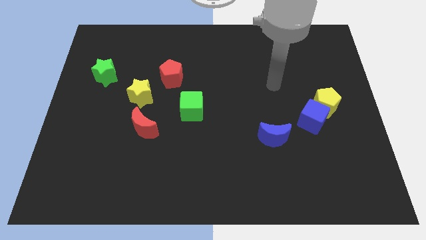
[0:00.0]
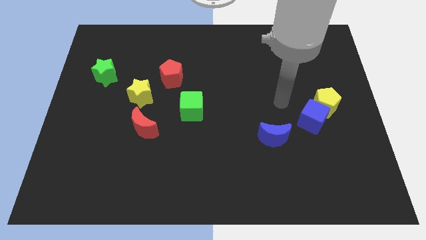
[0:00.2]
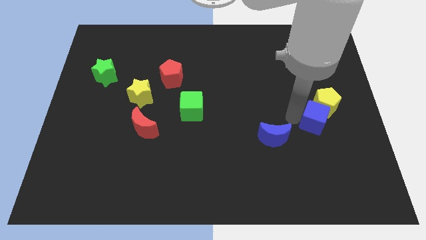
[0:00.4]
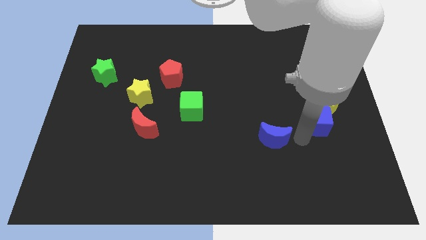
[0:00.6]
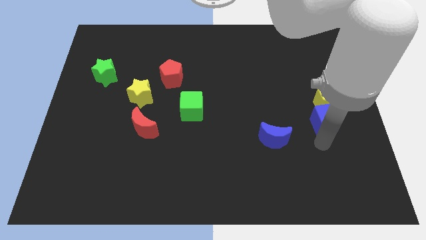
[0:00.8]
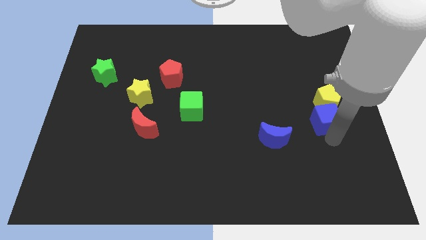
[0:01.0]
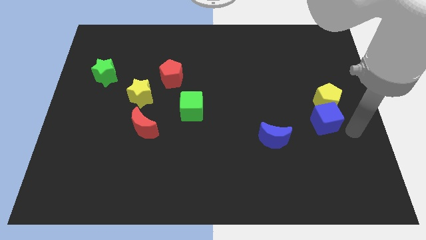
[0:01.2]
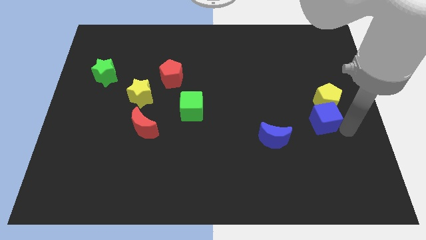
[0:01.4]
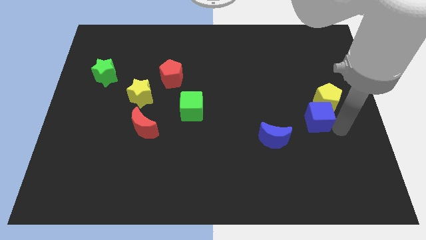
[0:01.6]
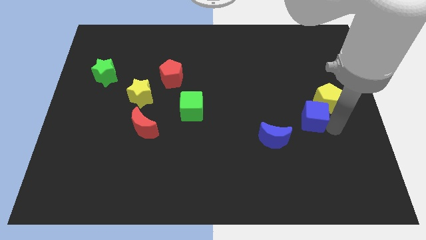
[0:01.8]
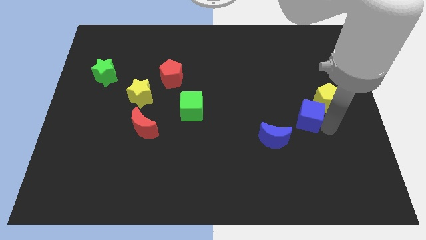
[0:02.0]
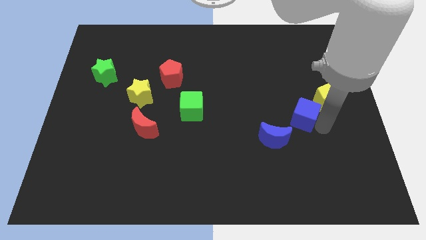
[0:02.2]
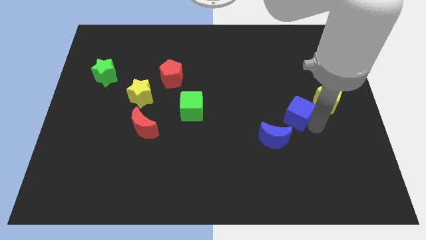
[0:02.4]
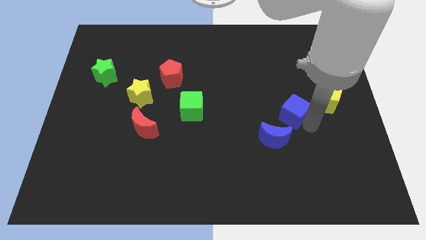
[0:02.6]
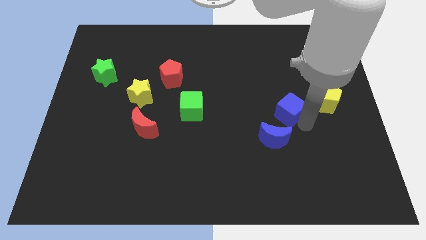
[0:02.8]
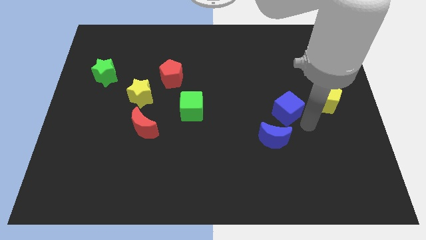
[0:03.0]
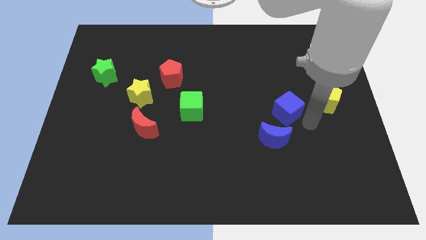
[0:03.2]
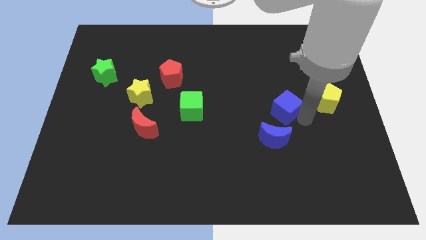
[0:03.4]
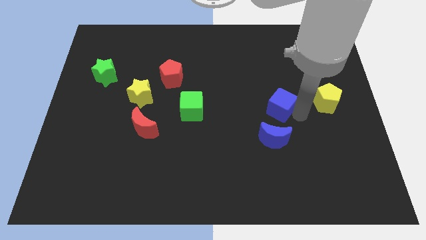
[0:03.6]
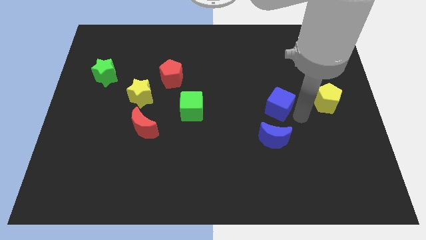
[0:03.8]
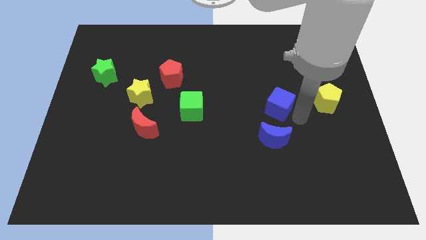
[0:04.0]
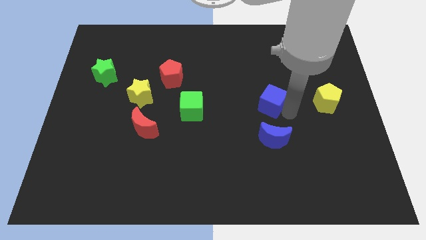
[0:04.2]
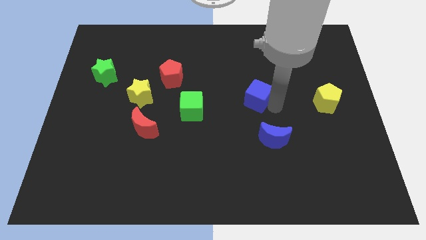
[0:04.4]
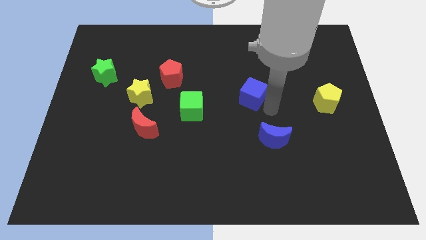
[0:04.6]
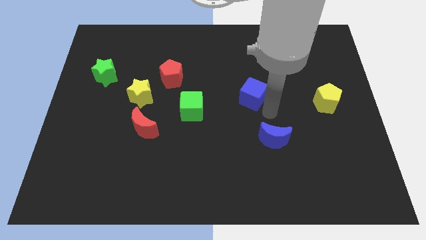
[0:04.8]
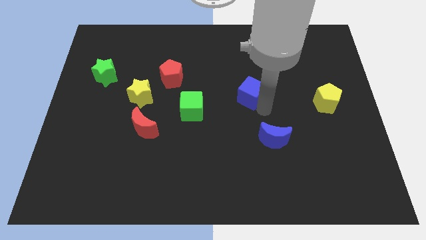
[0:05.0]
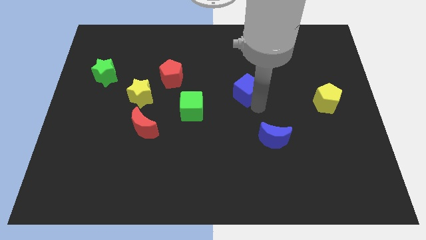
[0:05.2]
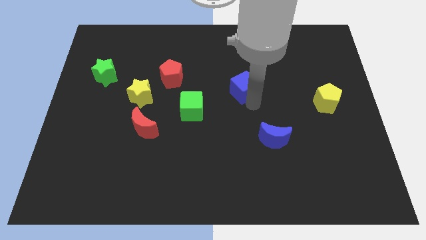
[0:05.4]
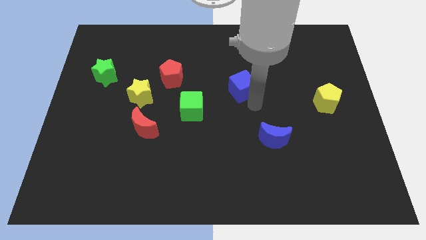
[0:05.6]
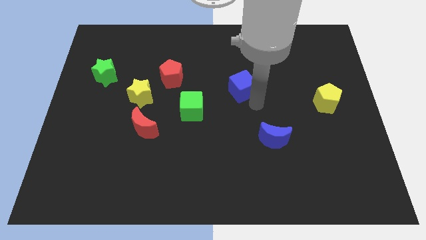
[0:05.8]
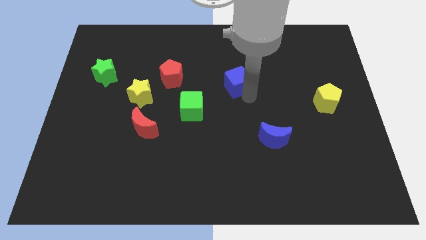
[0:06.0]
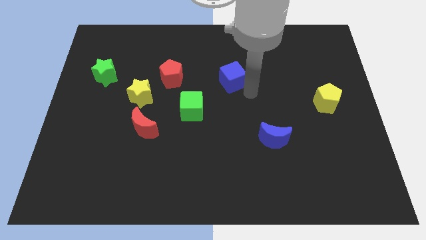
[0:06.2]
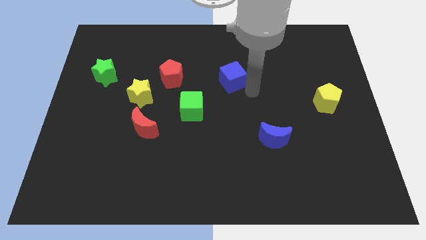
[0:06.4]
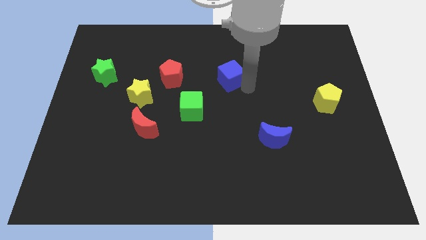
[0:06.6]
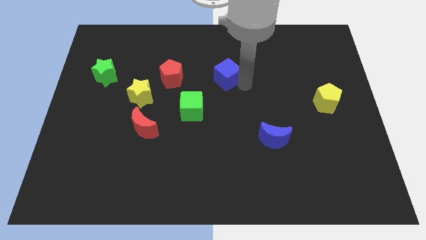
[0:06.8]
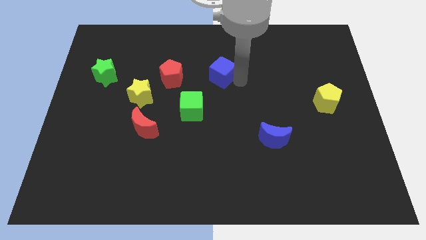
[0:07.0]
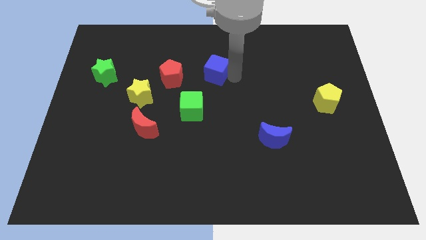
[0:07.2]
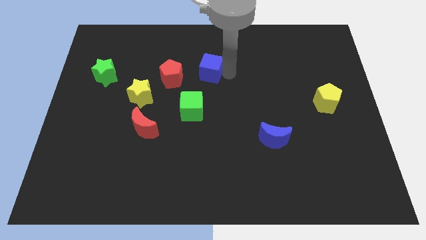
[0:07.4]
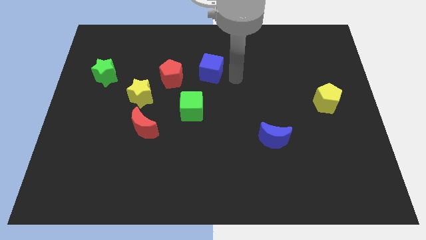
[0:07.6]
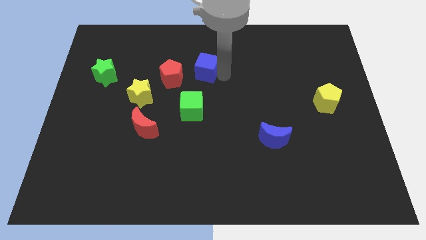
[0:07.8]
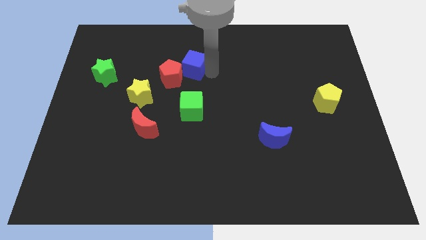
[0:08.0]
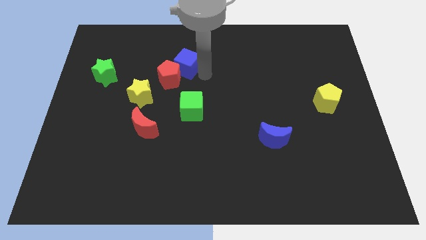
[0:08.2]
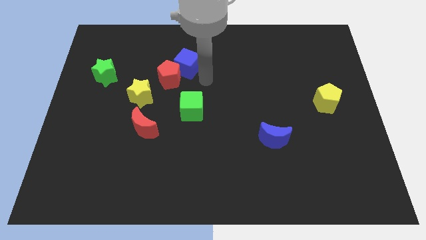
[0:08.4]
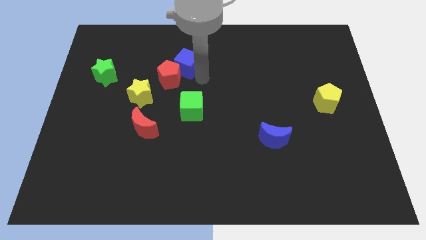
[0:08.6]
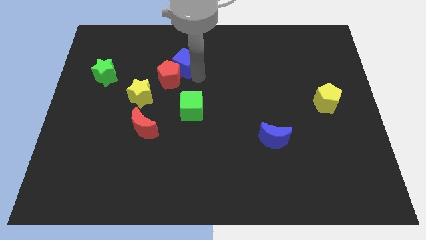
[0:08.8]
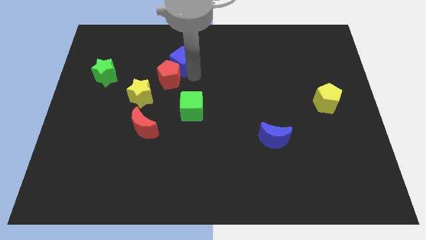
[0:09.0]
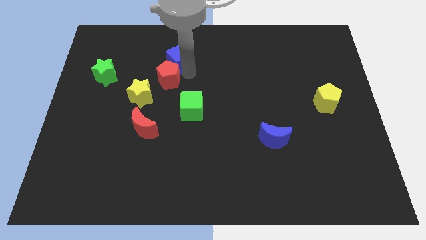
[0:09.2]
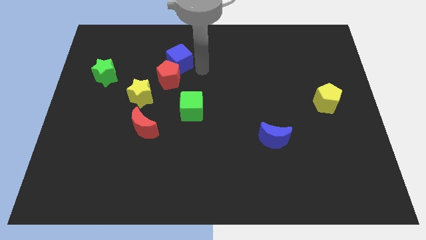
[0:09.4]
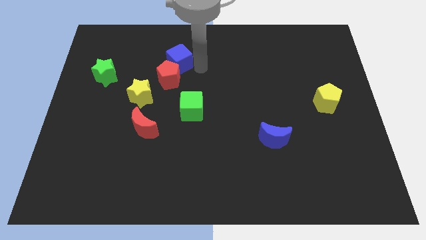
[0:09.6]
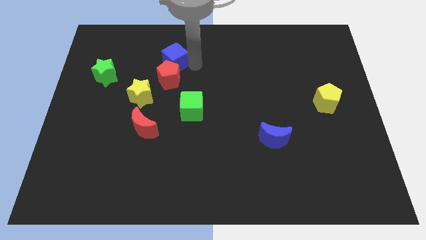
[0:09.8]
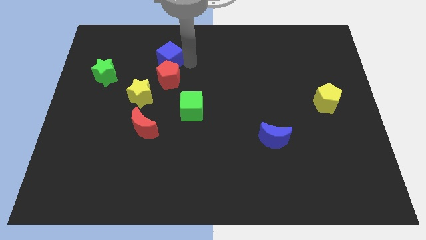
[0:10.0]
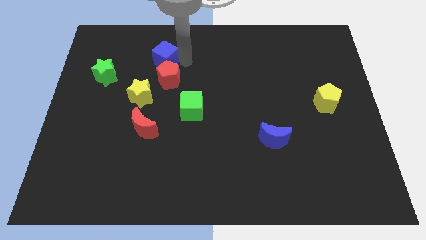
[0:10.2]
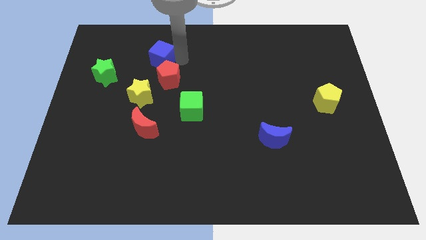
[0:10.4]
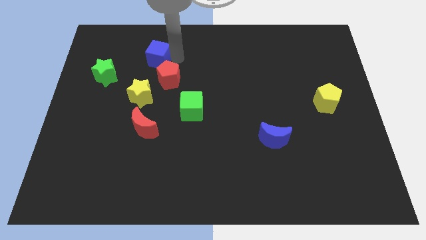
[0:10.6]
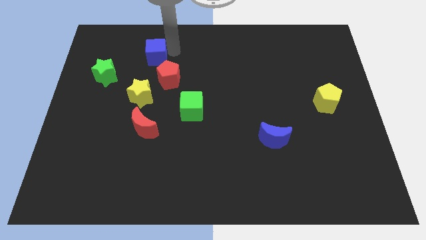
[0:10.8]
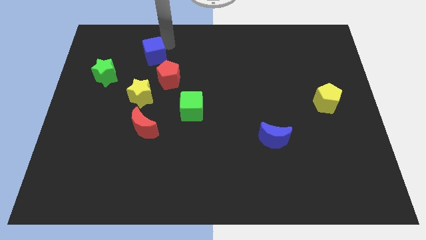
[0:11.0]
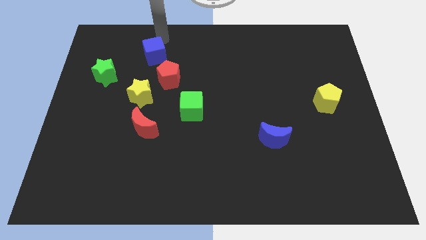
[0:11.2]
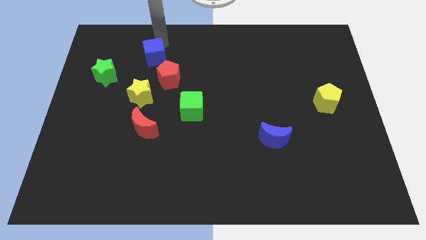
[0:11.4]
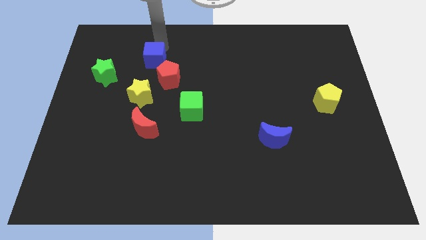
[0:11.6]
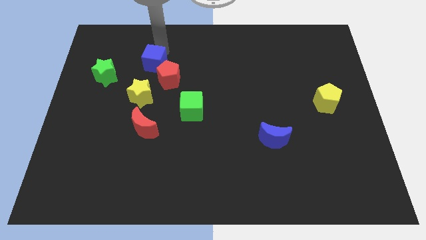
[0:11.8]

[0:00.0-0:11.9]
slide the blue cube to the right side of the green star

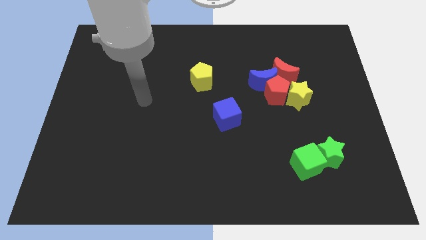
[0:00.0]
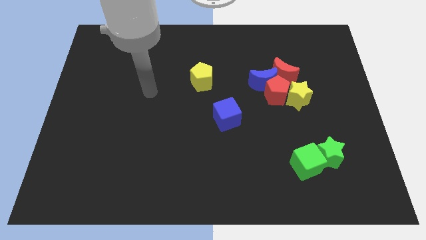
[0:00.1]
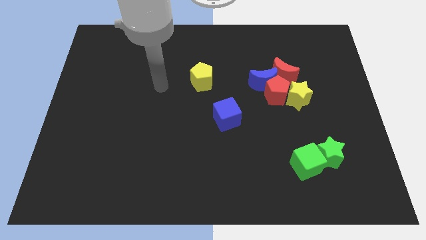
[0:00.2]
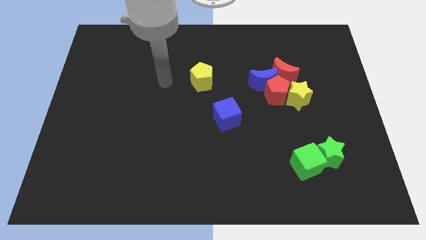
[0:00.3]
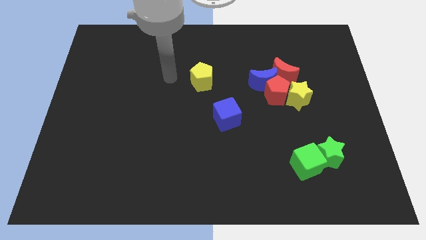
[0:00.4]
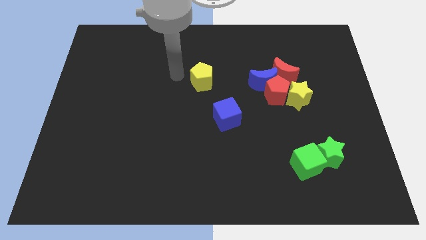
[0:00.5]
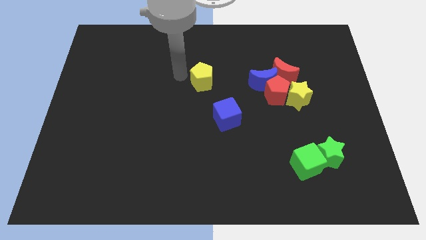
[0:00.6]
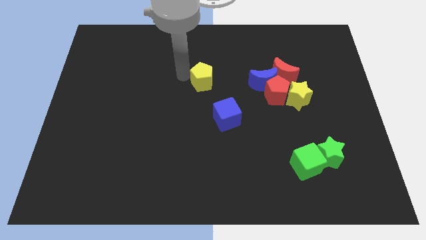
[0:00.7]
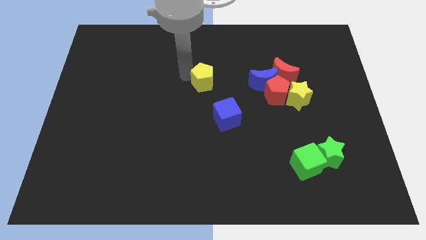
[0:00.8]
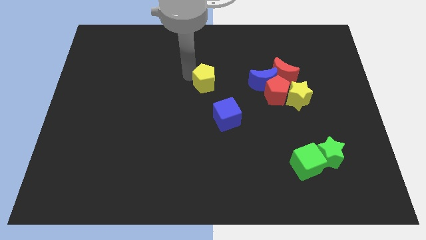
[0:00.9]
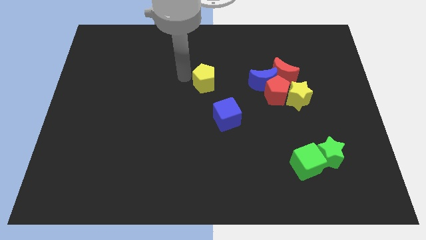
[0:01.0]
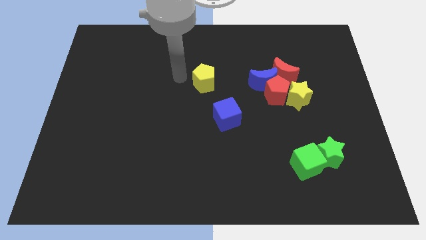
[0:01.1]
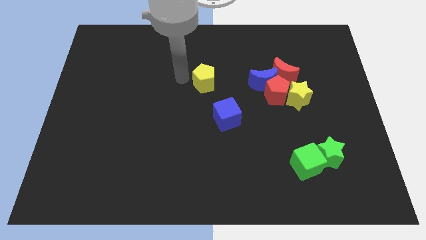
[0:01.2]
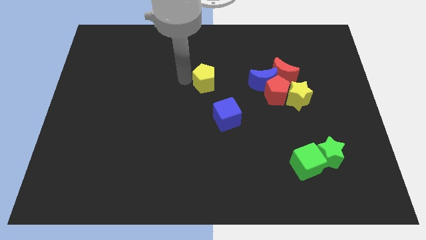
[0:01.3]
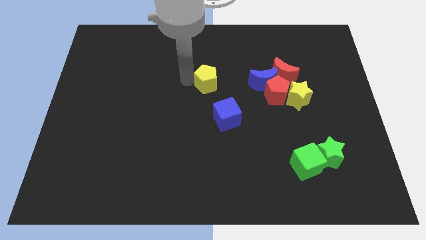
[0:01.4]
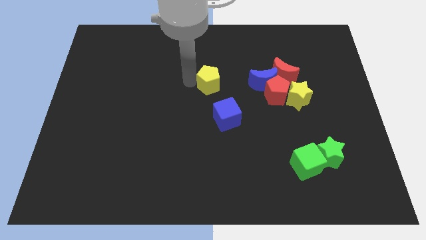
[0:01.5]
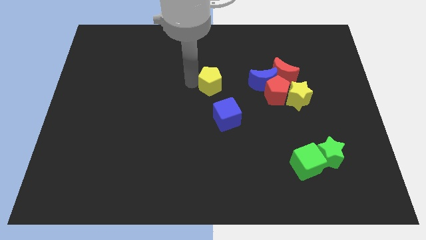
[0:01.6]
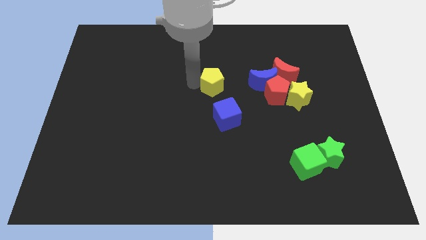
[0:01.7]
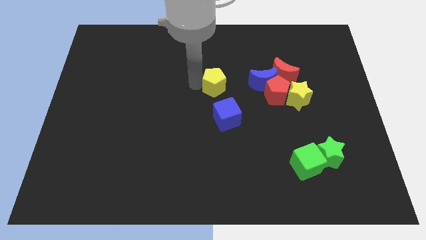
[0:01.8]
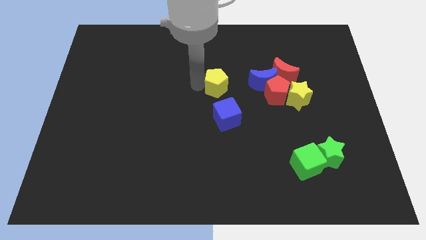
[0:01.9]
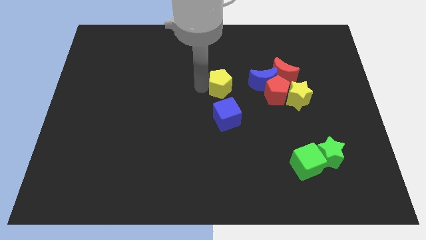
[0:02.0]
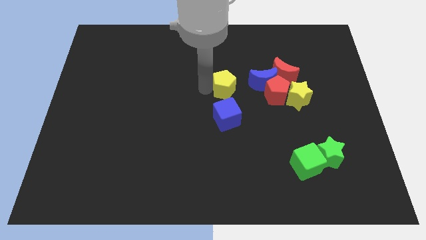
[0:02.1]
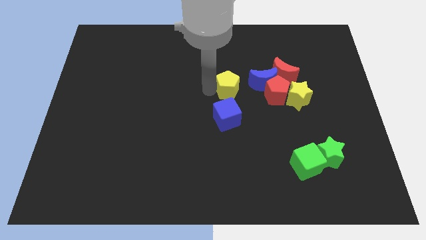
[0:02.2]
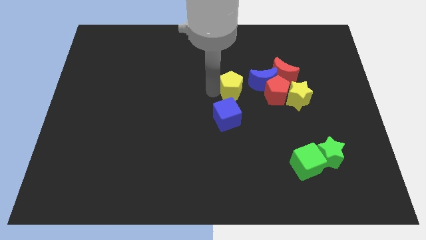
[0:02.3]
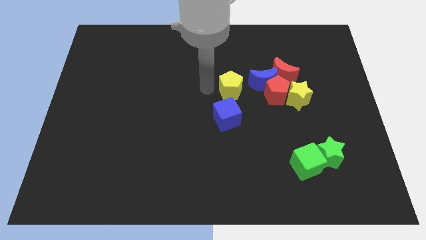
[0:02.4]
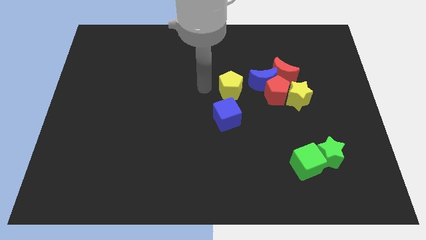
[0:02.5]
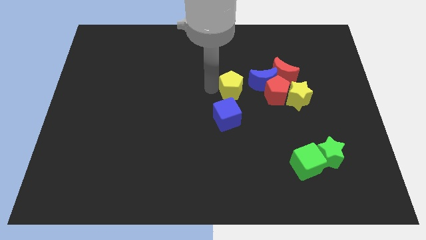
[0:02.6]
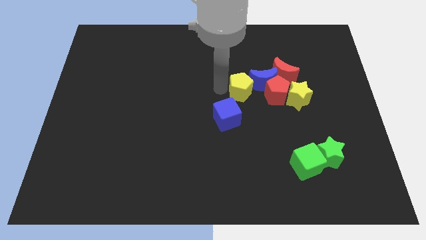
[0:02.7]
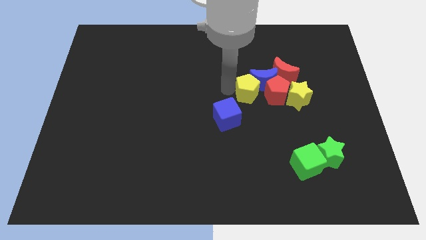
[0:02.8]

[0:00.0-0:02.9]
move the yellow pentagon to the bottom left side of the red moon
